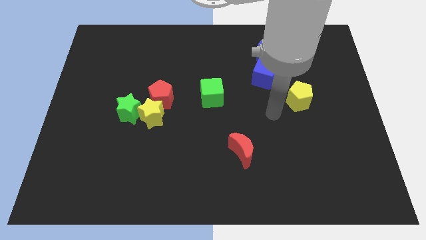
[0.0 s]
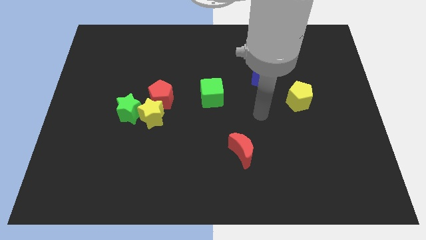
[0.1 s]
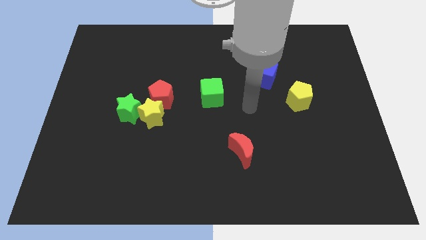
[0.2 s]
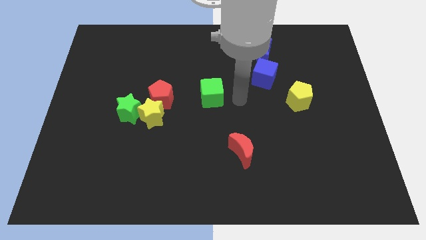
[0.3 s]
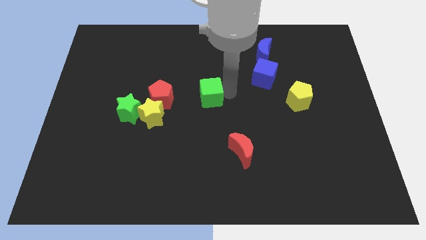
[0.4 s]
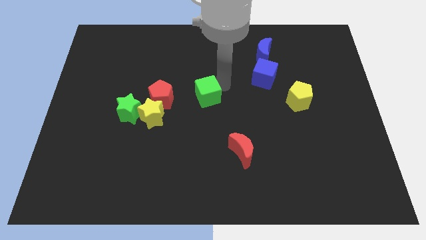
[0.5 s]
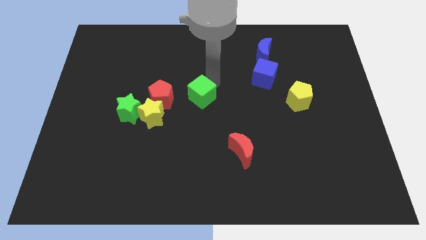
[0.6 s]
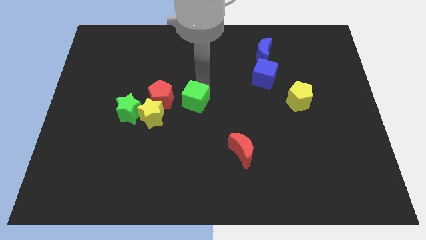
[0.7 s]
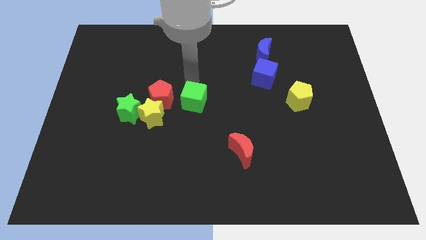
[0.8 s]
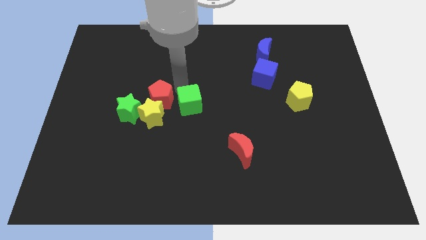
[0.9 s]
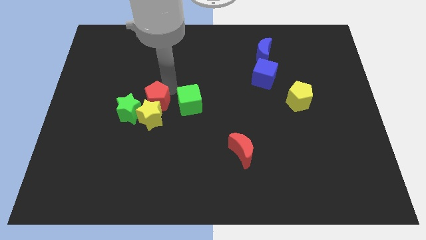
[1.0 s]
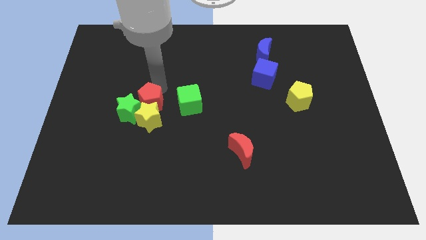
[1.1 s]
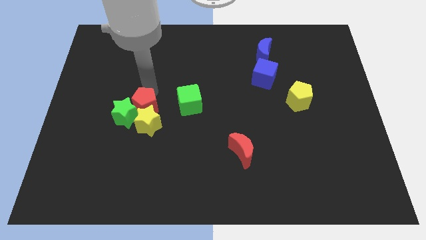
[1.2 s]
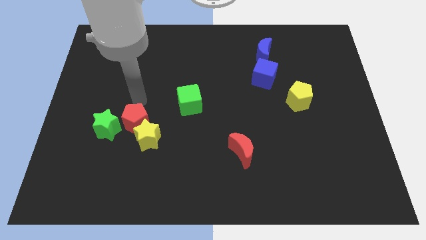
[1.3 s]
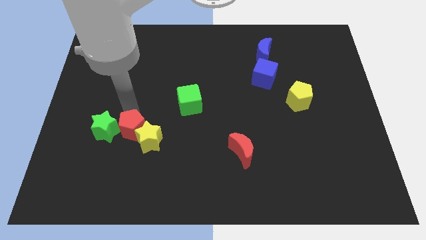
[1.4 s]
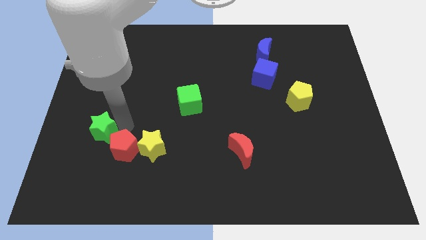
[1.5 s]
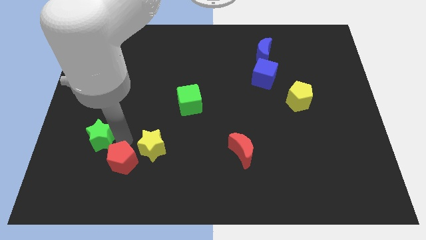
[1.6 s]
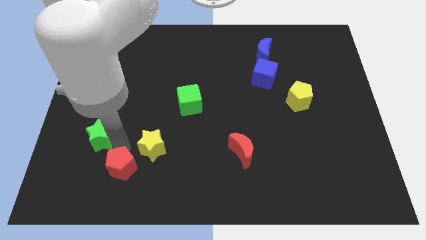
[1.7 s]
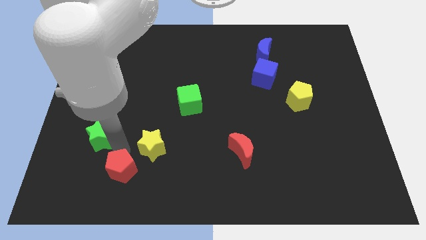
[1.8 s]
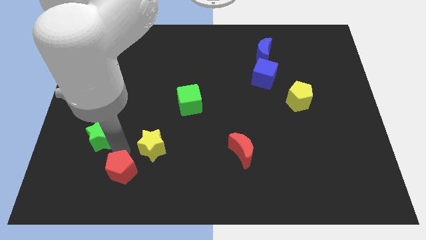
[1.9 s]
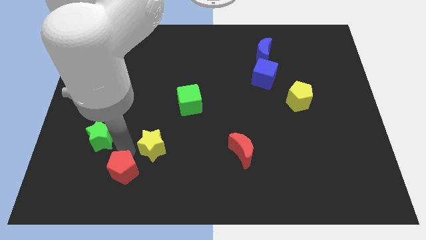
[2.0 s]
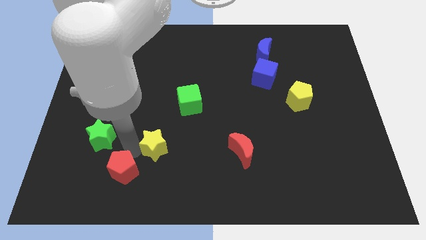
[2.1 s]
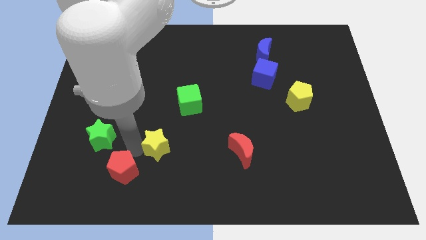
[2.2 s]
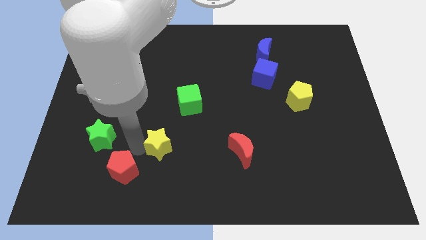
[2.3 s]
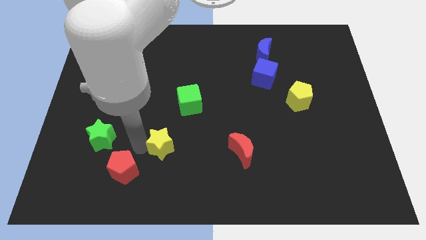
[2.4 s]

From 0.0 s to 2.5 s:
pull the yellow star apart from the red pentagon and green star

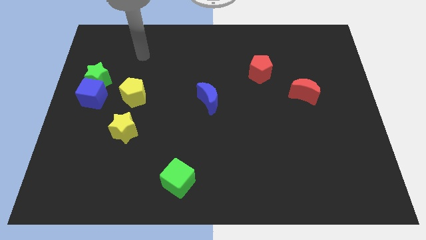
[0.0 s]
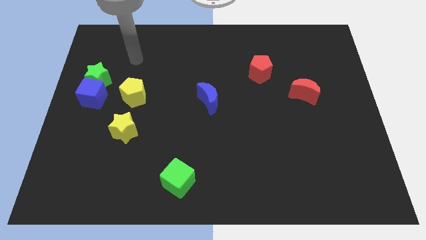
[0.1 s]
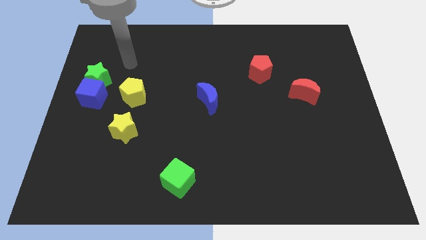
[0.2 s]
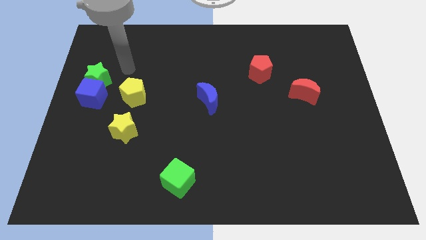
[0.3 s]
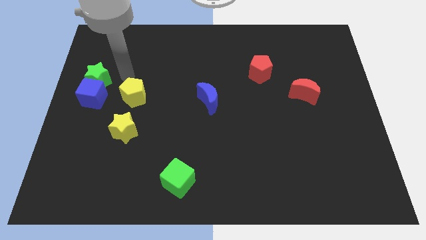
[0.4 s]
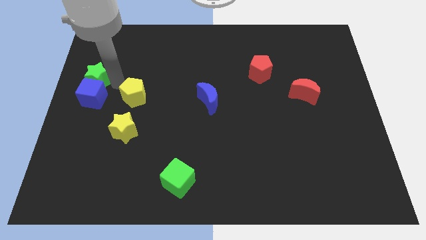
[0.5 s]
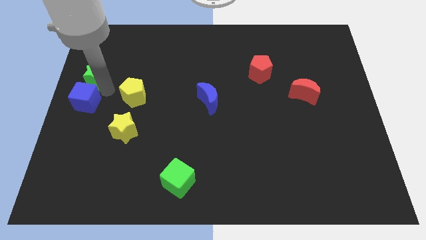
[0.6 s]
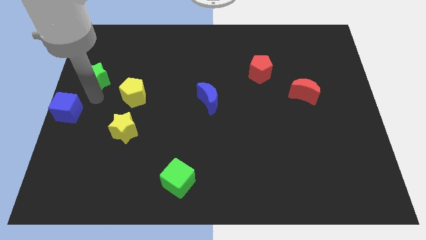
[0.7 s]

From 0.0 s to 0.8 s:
separate the green star from the blue cube

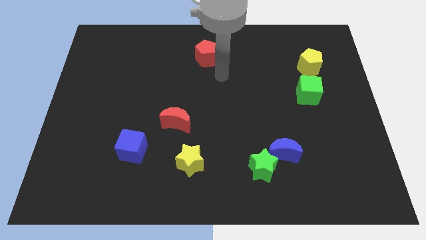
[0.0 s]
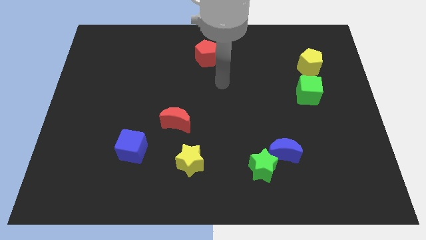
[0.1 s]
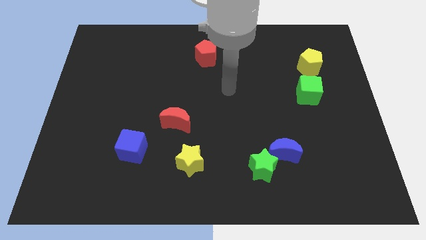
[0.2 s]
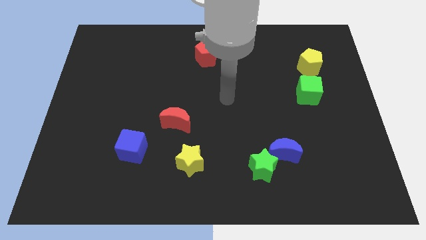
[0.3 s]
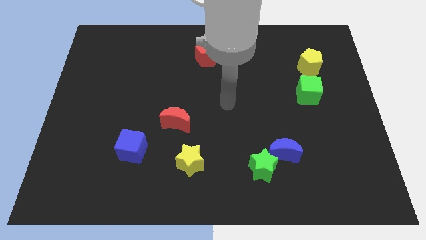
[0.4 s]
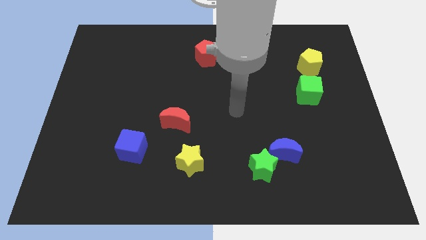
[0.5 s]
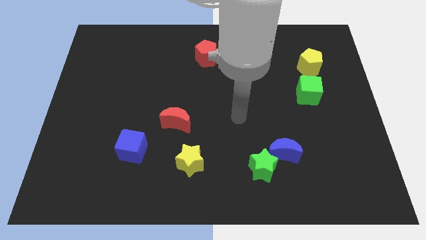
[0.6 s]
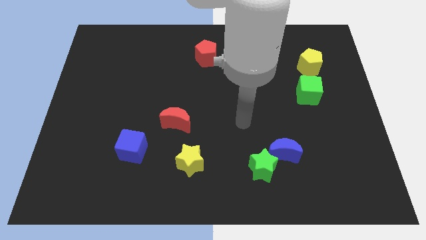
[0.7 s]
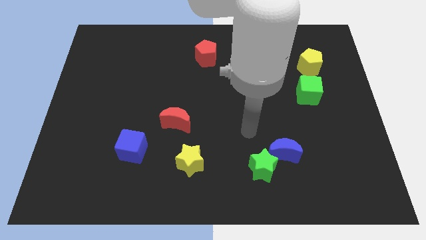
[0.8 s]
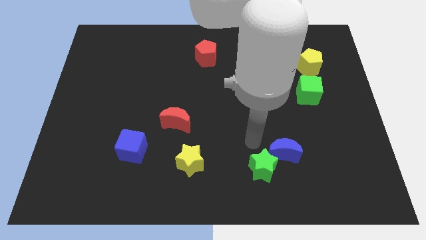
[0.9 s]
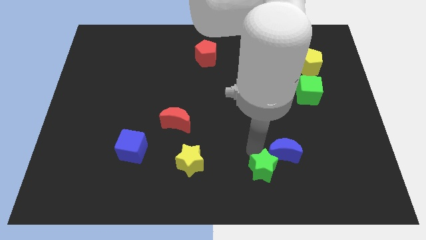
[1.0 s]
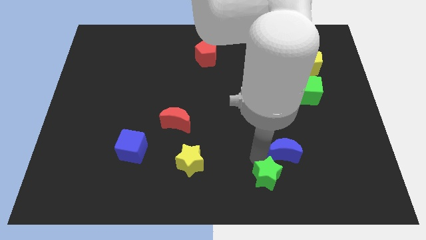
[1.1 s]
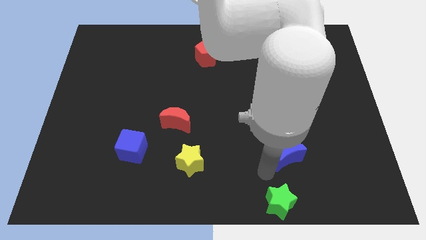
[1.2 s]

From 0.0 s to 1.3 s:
separate the blue moon from the green star

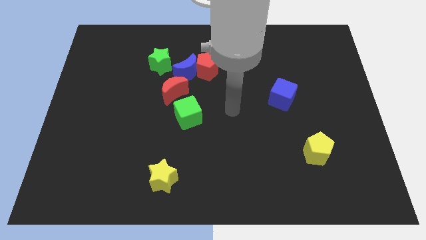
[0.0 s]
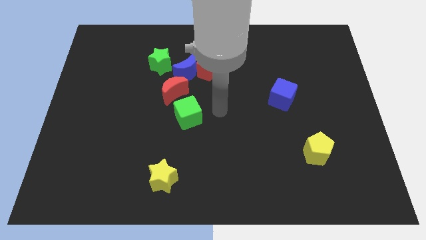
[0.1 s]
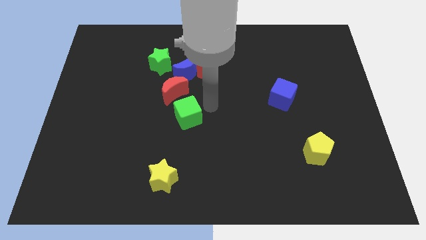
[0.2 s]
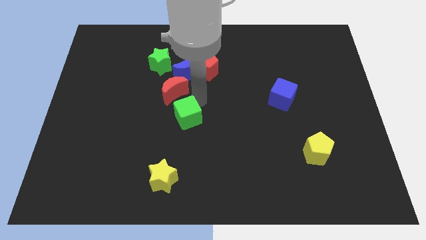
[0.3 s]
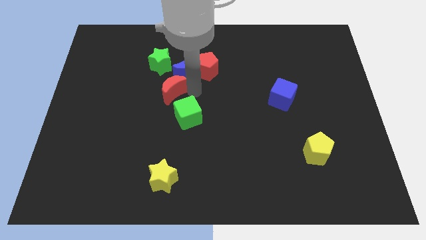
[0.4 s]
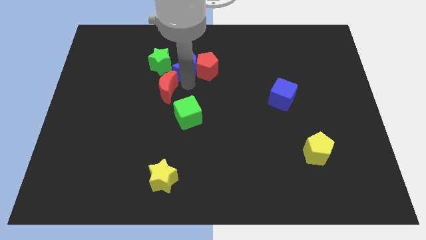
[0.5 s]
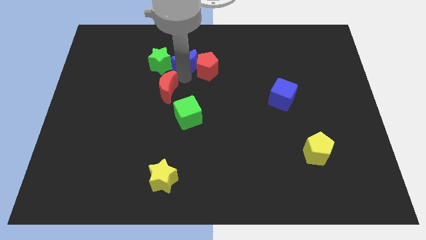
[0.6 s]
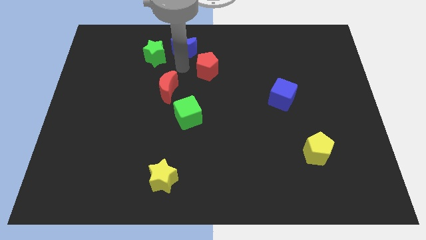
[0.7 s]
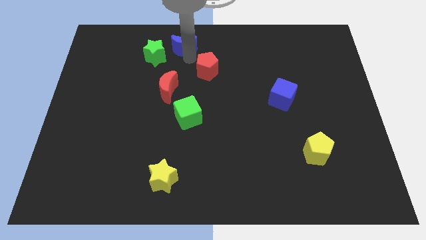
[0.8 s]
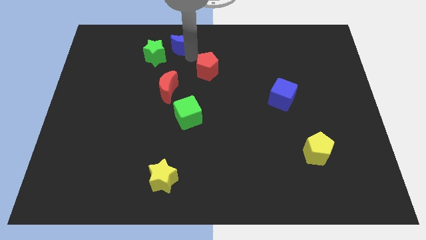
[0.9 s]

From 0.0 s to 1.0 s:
move the red pentagon away from the blue moon

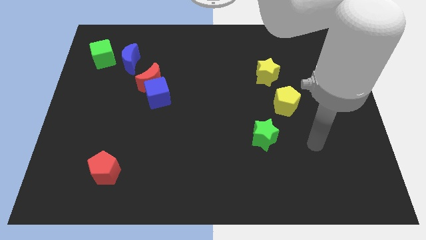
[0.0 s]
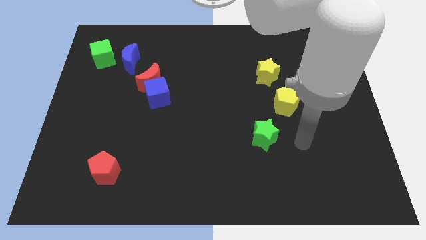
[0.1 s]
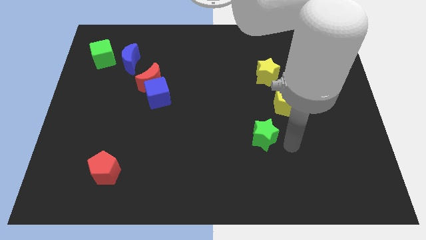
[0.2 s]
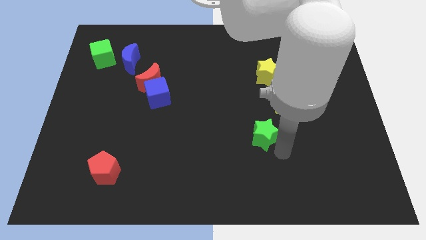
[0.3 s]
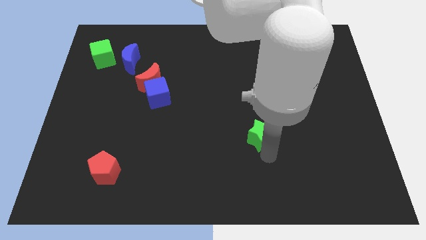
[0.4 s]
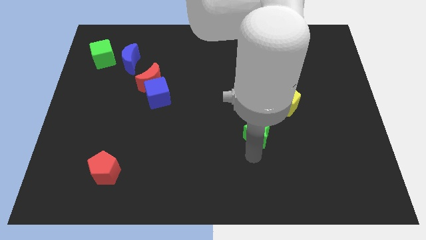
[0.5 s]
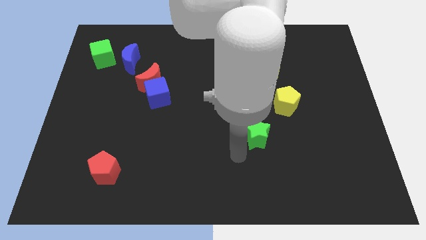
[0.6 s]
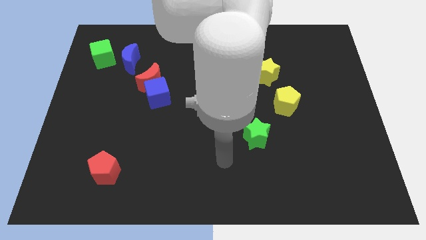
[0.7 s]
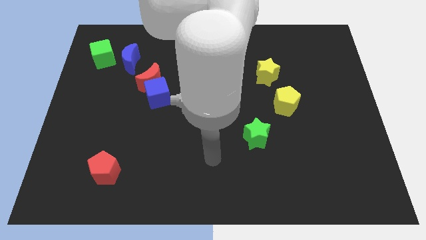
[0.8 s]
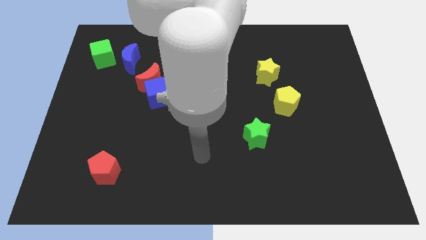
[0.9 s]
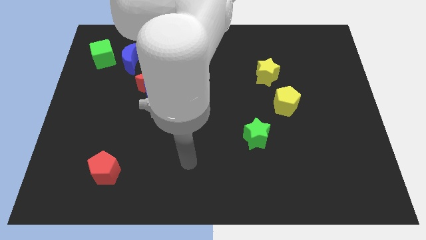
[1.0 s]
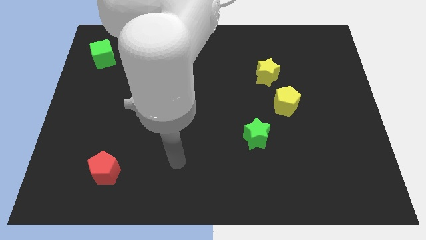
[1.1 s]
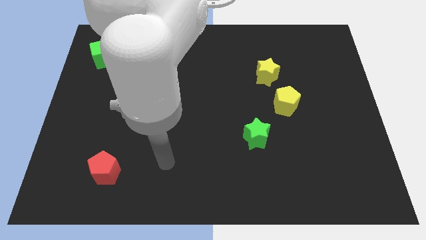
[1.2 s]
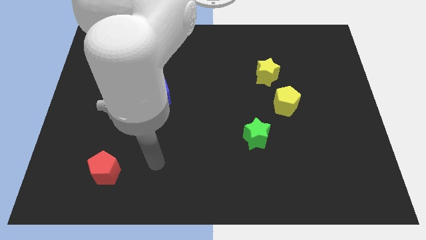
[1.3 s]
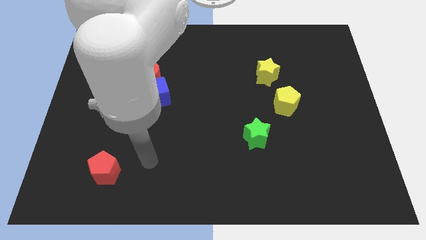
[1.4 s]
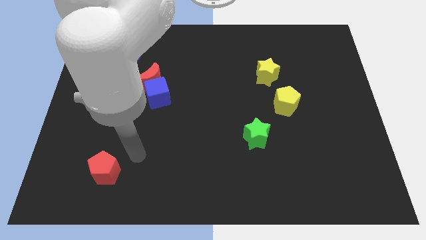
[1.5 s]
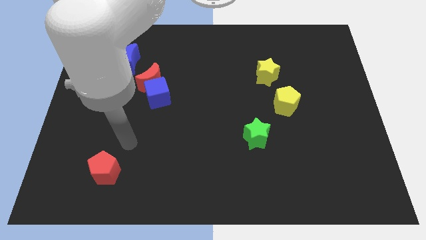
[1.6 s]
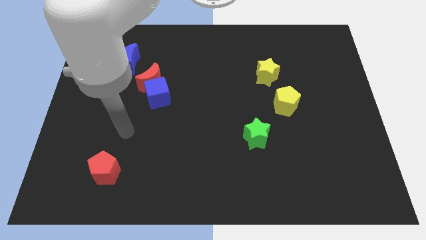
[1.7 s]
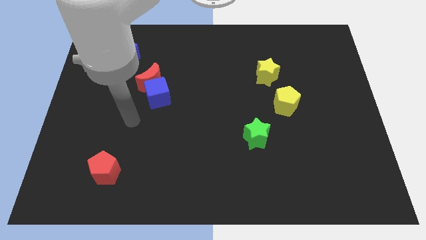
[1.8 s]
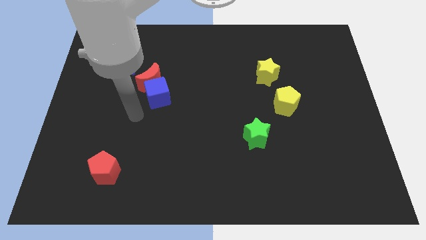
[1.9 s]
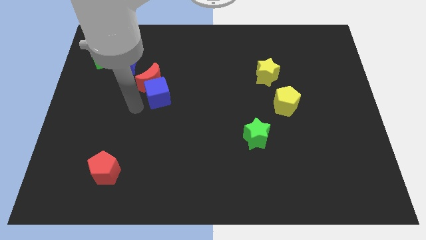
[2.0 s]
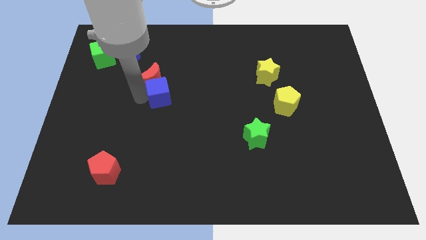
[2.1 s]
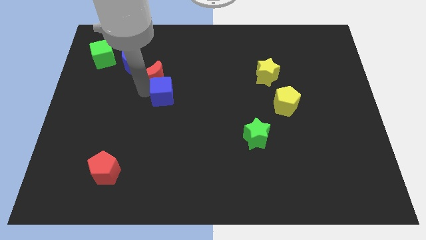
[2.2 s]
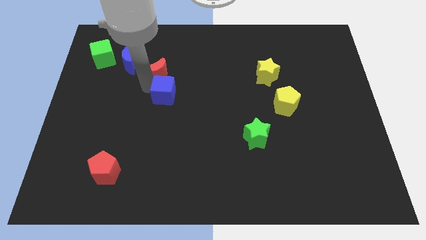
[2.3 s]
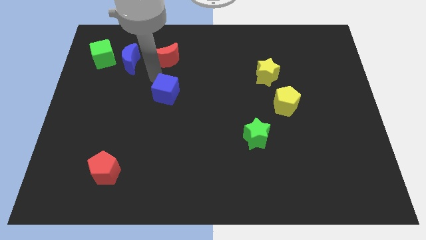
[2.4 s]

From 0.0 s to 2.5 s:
move the blue cube away from the red moon

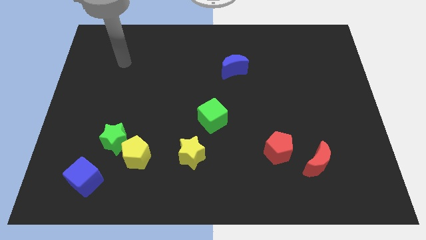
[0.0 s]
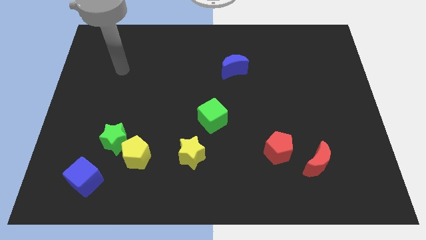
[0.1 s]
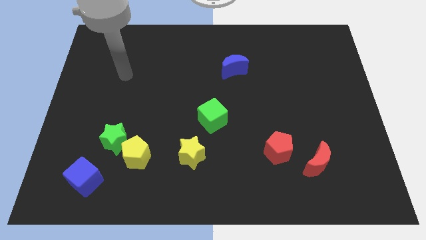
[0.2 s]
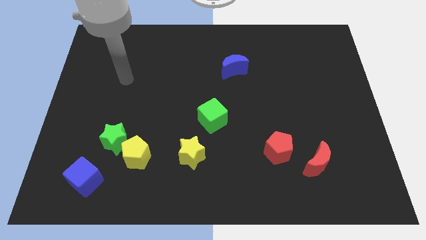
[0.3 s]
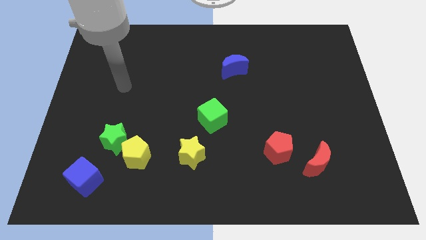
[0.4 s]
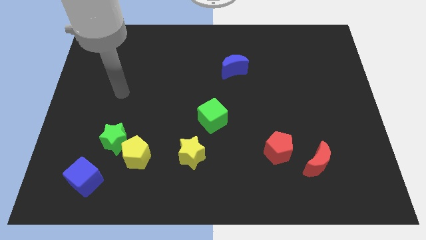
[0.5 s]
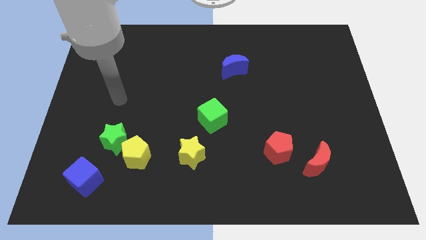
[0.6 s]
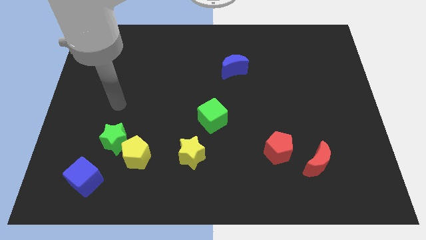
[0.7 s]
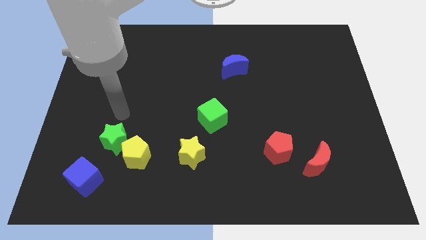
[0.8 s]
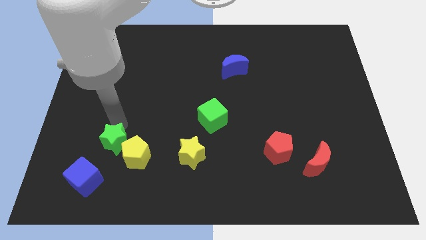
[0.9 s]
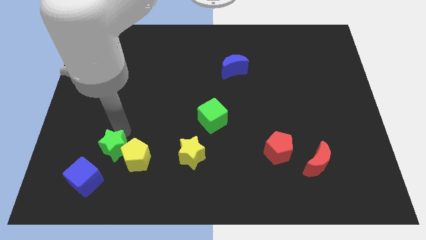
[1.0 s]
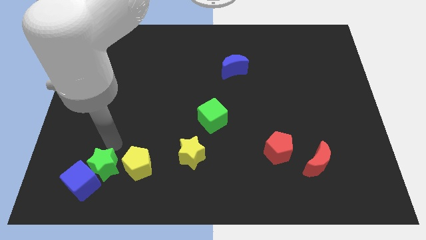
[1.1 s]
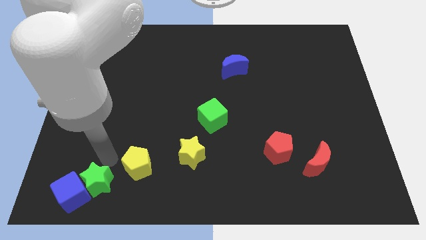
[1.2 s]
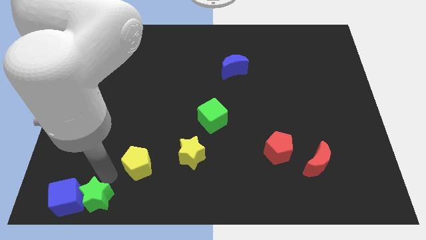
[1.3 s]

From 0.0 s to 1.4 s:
pull the yellow pentagon apart from the green star
